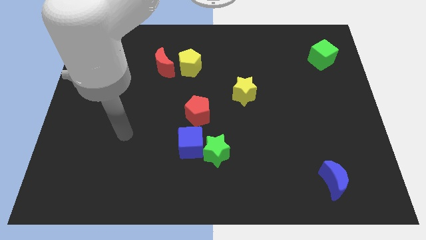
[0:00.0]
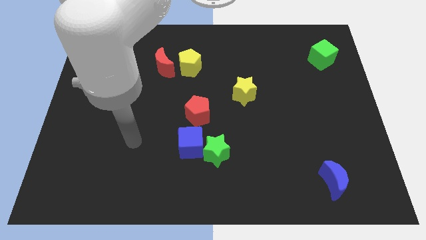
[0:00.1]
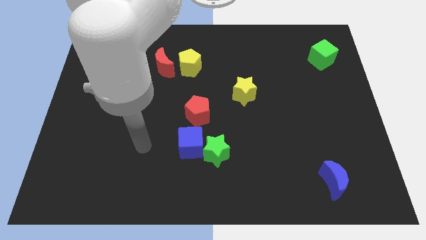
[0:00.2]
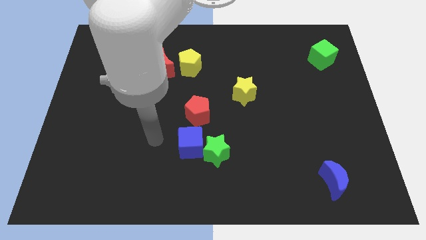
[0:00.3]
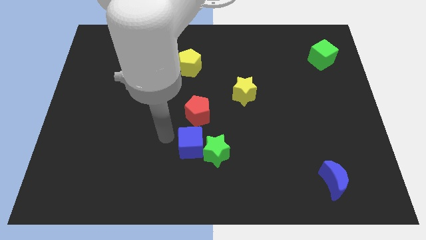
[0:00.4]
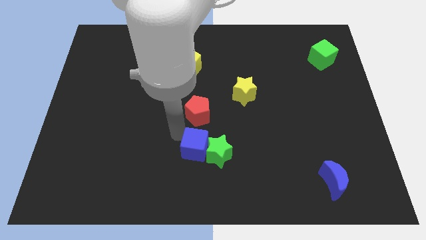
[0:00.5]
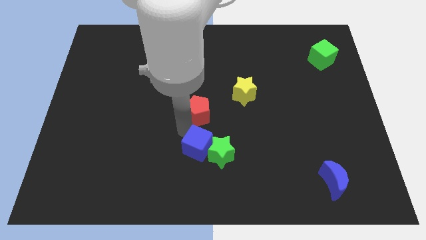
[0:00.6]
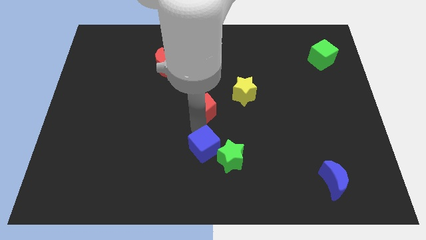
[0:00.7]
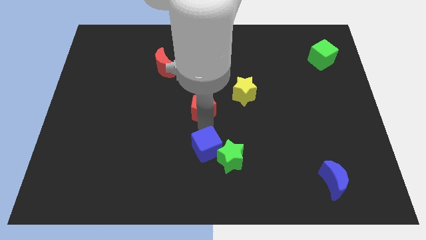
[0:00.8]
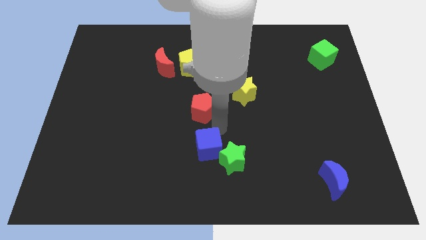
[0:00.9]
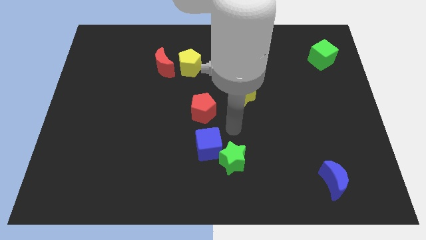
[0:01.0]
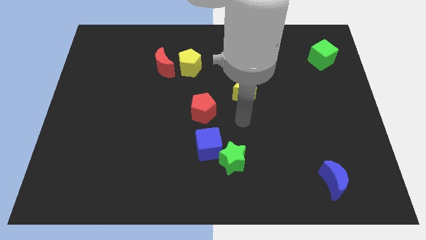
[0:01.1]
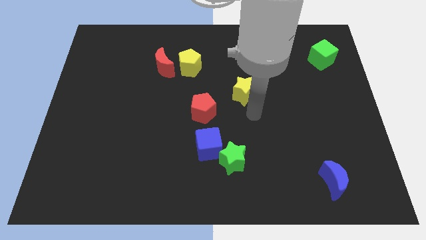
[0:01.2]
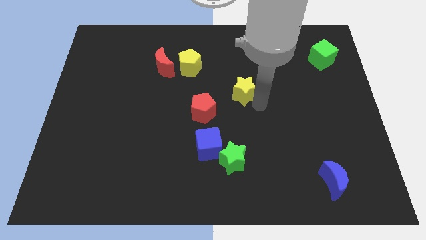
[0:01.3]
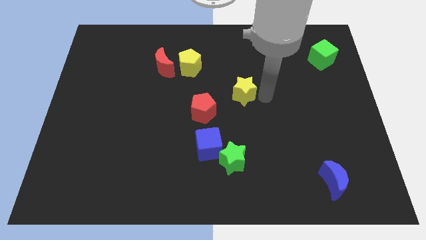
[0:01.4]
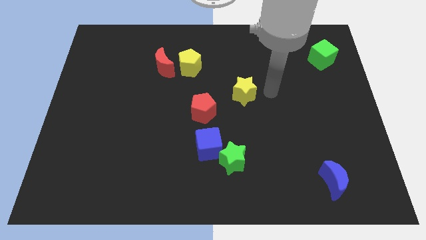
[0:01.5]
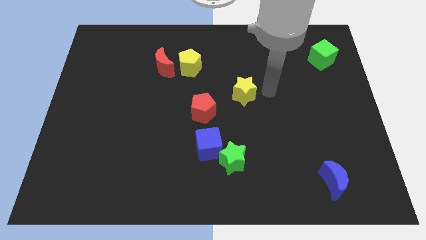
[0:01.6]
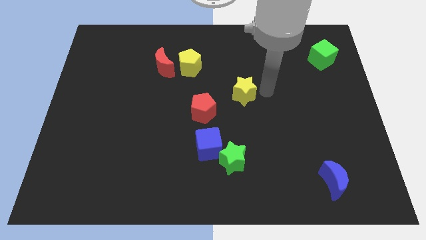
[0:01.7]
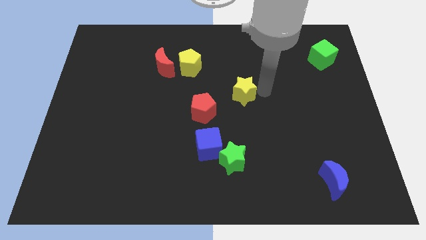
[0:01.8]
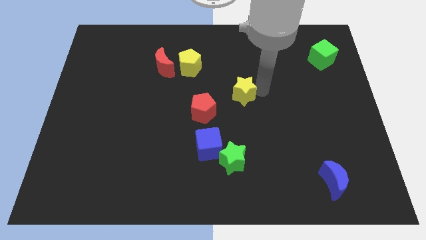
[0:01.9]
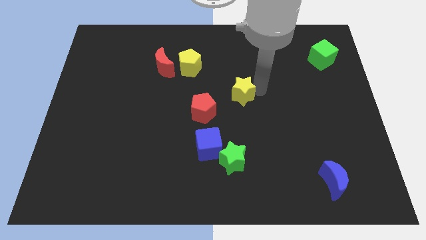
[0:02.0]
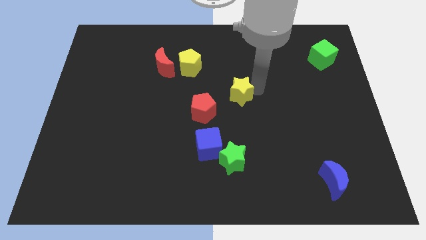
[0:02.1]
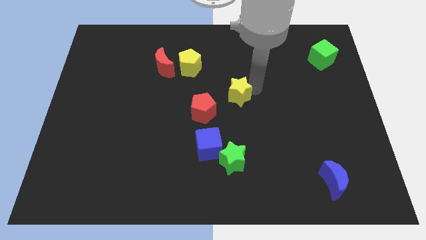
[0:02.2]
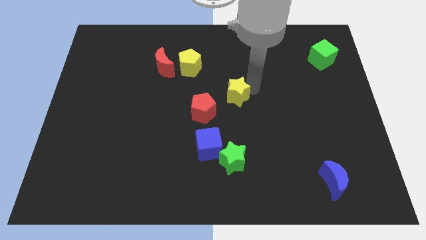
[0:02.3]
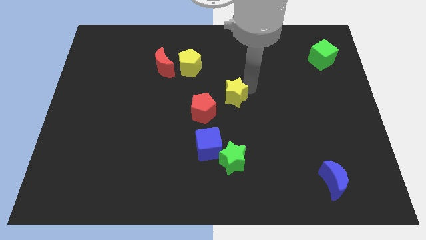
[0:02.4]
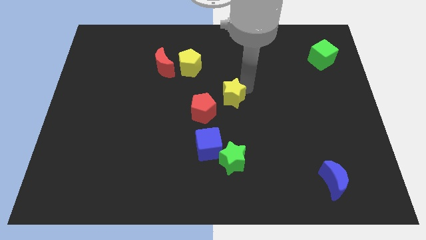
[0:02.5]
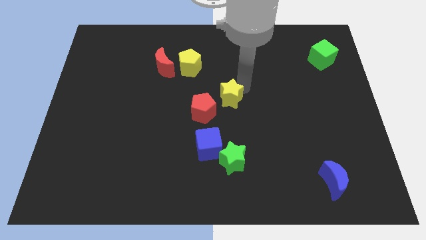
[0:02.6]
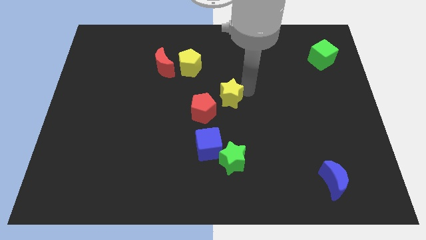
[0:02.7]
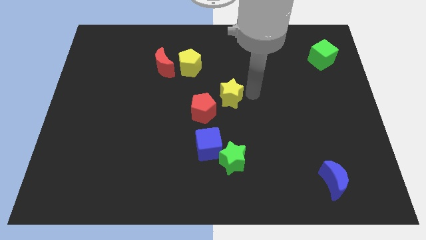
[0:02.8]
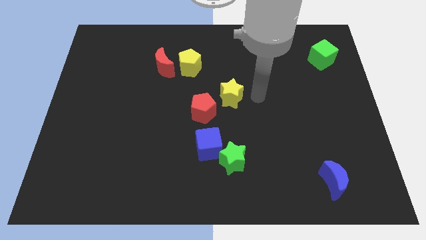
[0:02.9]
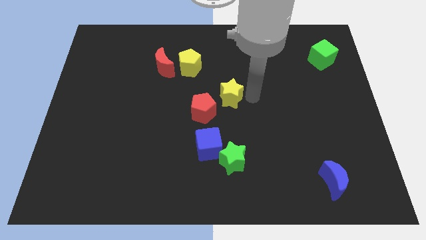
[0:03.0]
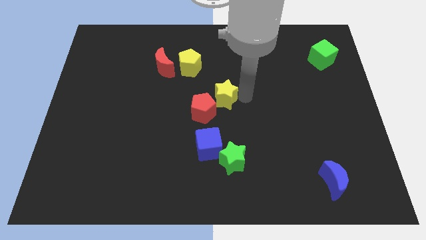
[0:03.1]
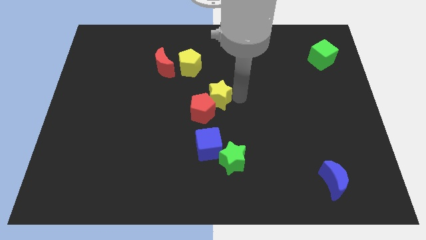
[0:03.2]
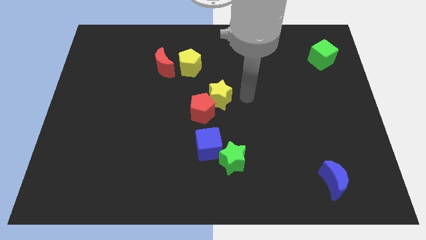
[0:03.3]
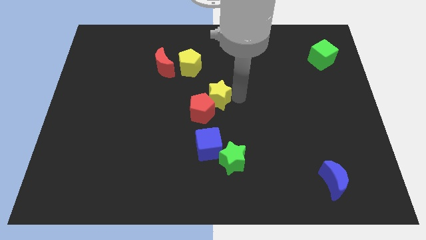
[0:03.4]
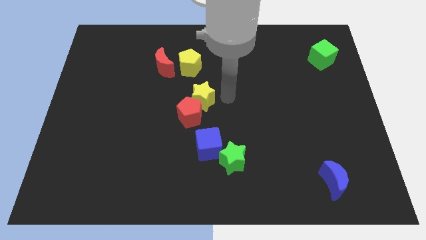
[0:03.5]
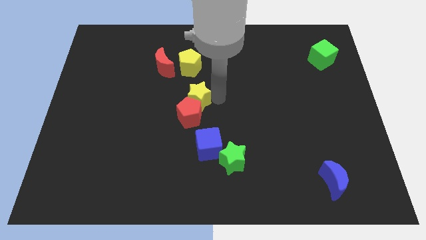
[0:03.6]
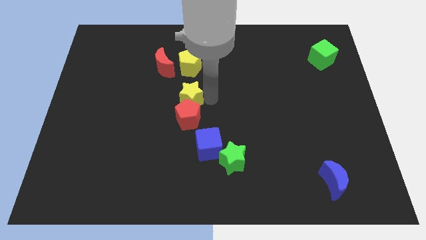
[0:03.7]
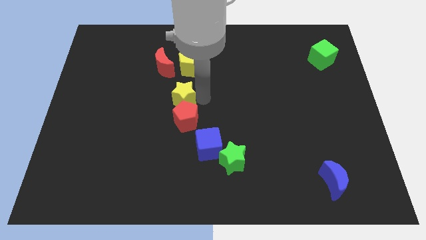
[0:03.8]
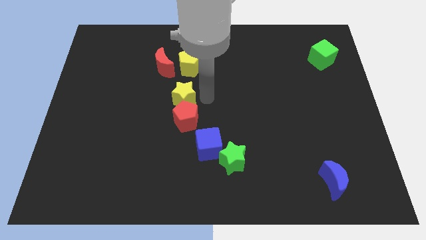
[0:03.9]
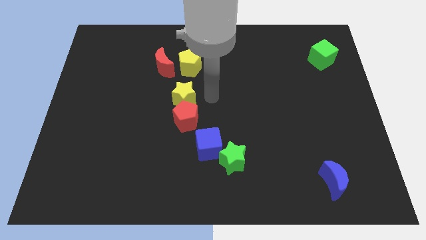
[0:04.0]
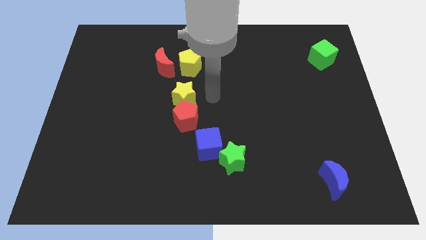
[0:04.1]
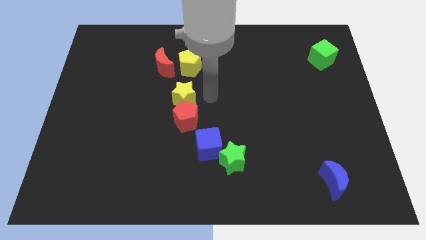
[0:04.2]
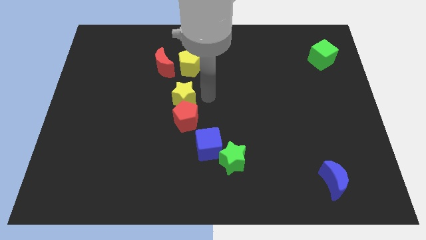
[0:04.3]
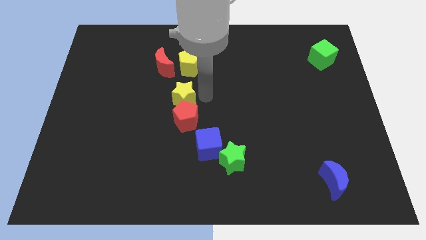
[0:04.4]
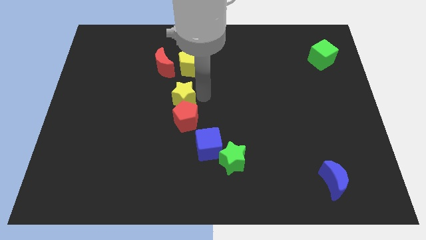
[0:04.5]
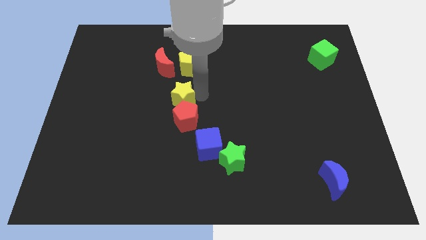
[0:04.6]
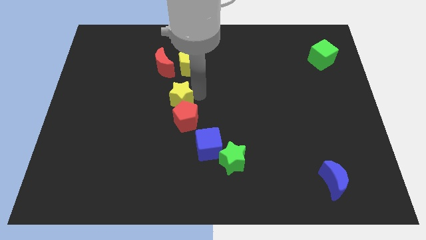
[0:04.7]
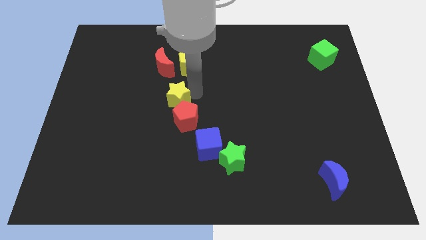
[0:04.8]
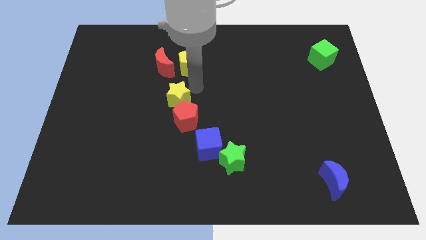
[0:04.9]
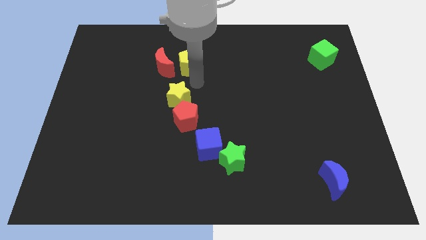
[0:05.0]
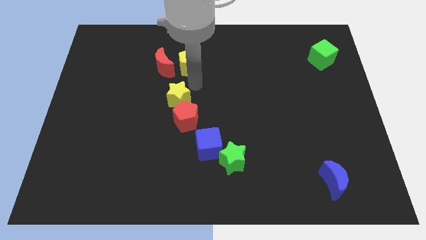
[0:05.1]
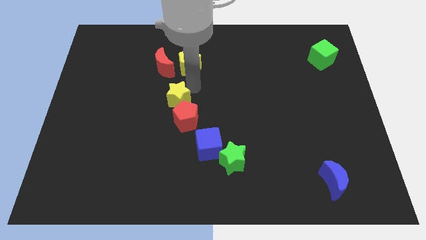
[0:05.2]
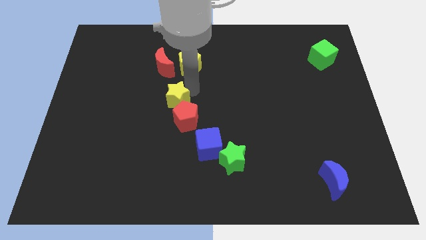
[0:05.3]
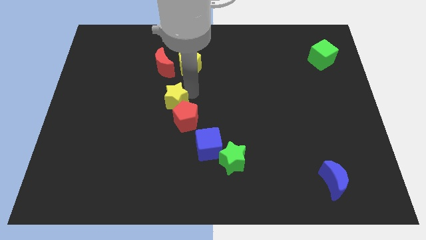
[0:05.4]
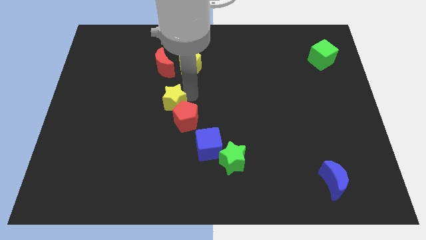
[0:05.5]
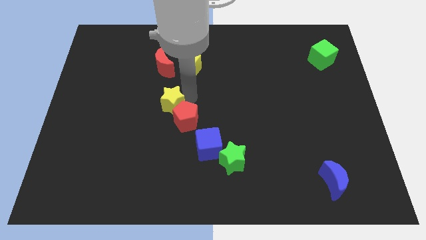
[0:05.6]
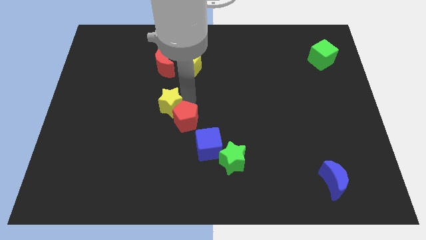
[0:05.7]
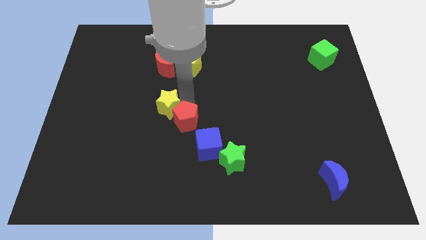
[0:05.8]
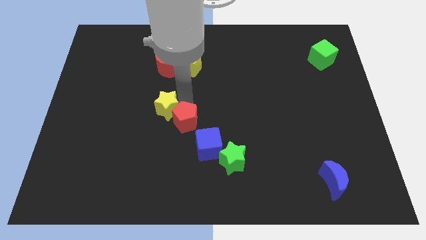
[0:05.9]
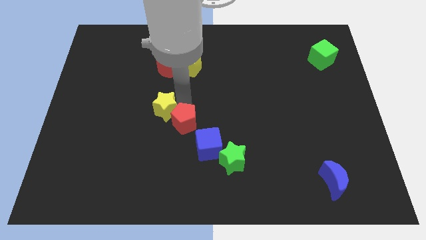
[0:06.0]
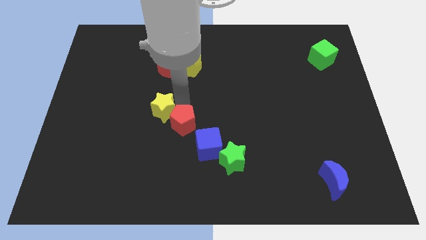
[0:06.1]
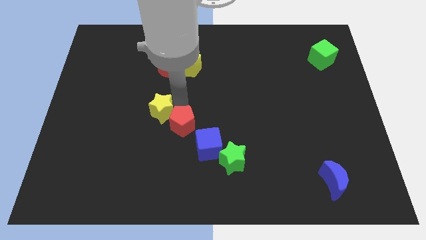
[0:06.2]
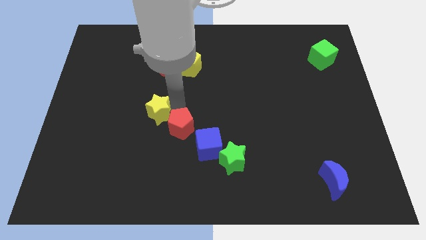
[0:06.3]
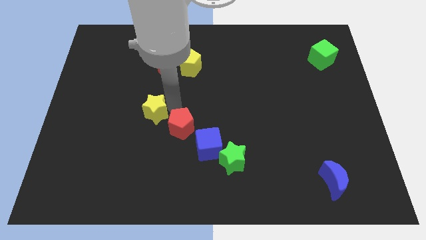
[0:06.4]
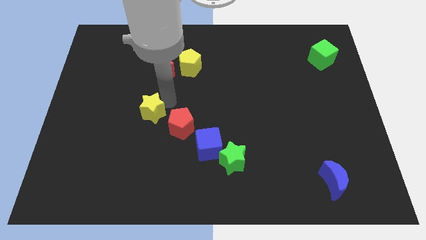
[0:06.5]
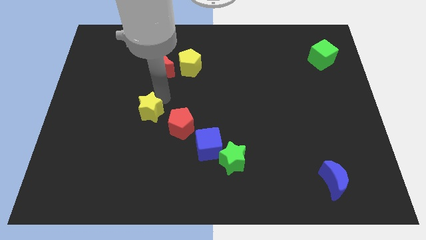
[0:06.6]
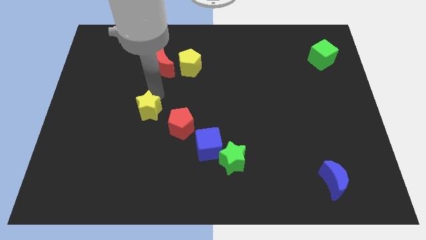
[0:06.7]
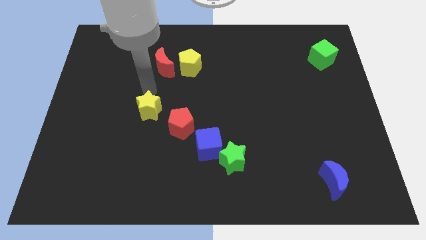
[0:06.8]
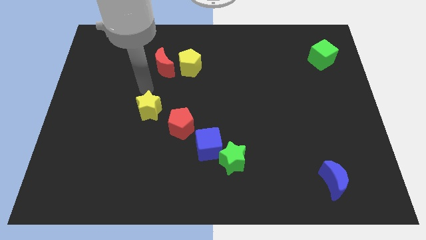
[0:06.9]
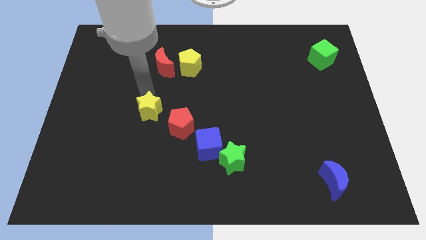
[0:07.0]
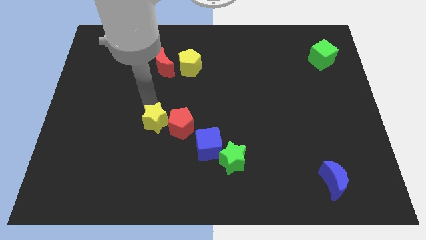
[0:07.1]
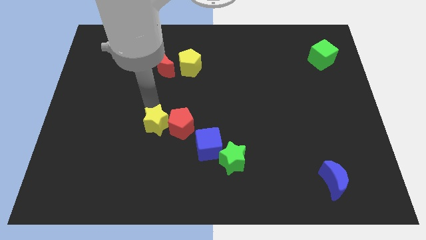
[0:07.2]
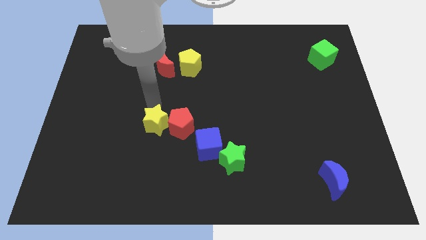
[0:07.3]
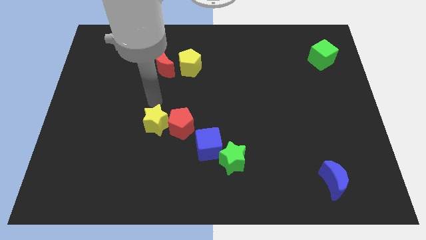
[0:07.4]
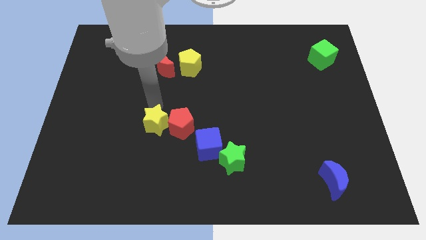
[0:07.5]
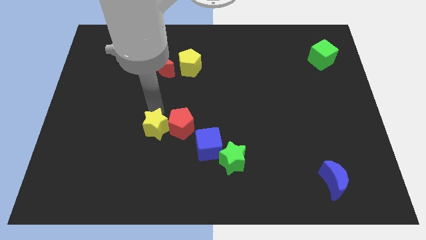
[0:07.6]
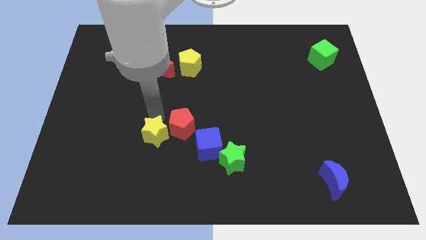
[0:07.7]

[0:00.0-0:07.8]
move the yellow star left of the blue cube
